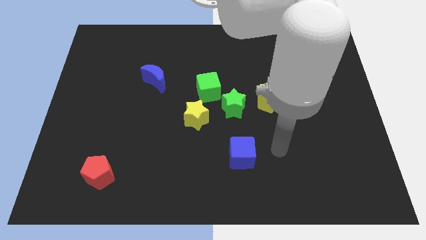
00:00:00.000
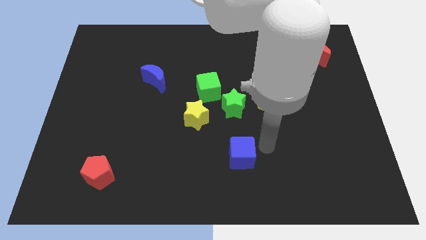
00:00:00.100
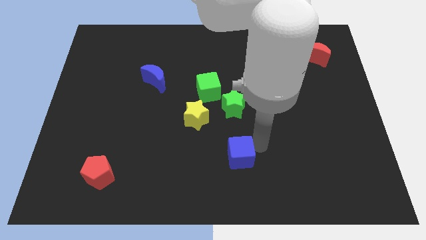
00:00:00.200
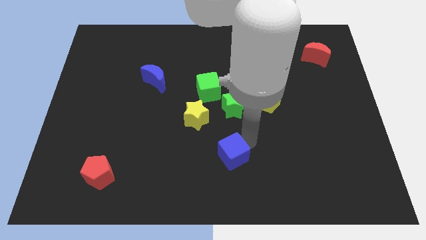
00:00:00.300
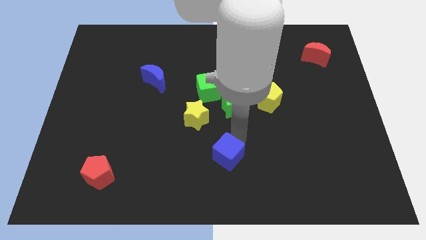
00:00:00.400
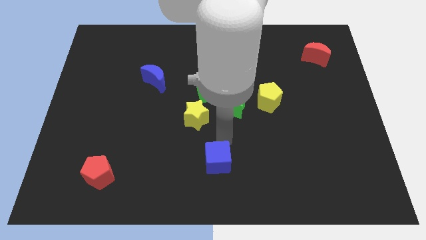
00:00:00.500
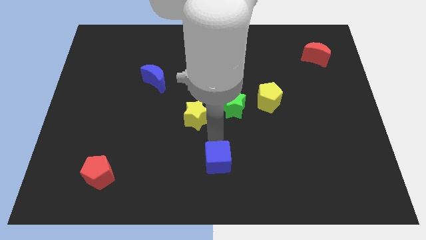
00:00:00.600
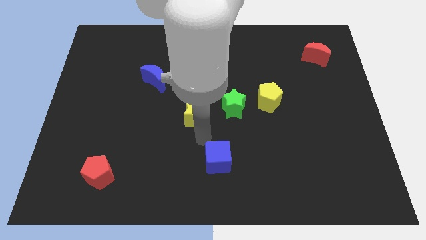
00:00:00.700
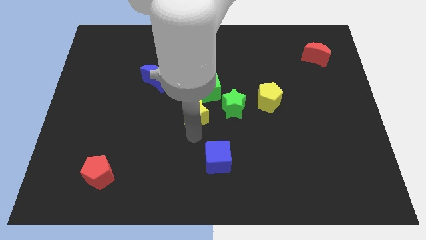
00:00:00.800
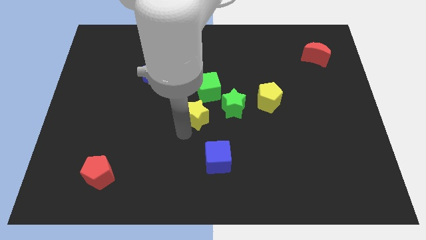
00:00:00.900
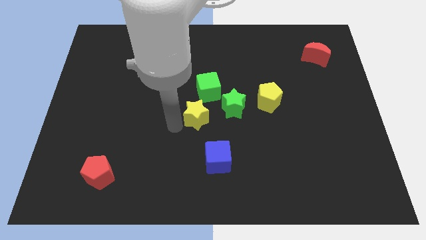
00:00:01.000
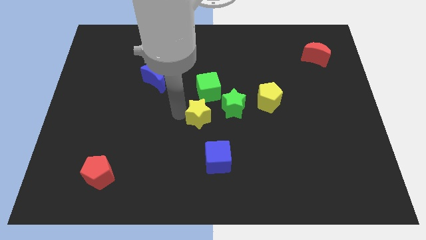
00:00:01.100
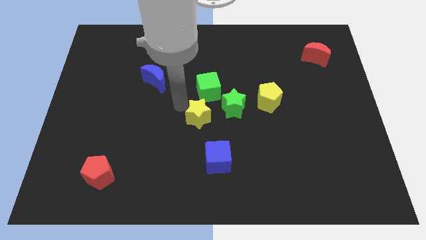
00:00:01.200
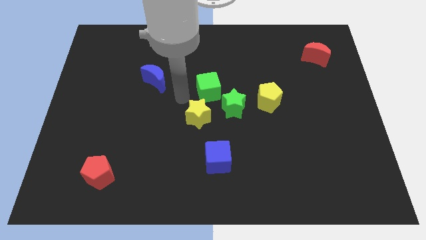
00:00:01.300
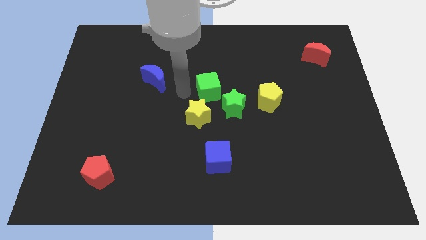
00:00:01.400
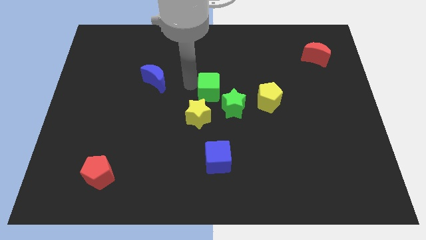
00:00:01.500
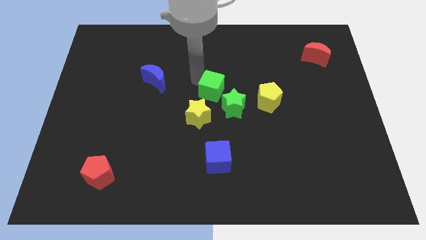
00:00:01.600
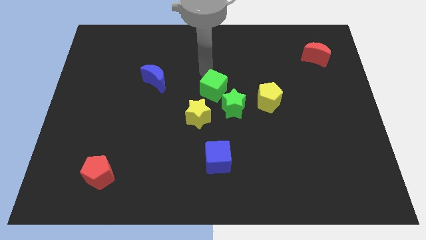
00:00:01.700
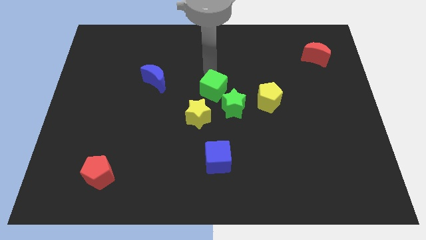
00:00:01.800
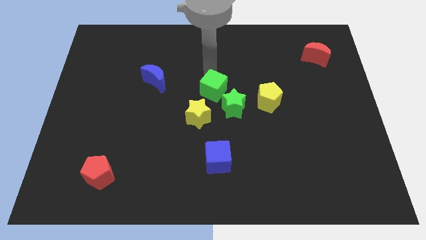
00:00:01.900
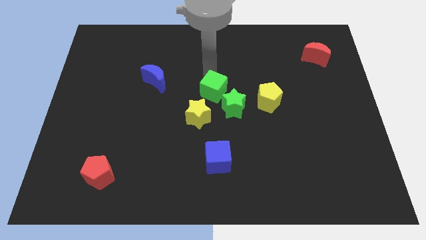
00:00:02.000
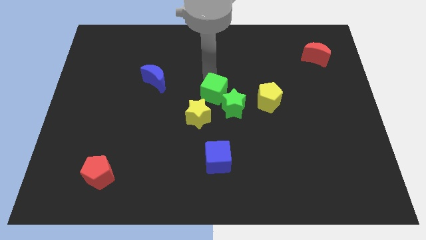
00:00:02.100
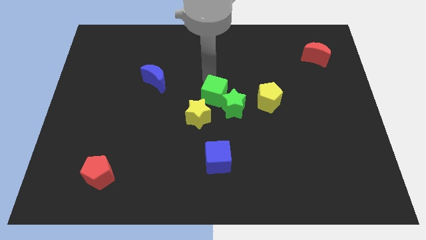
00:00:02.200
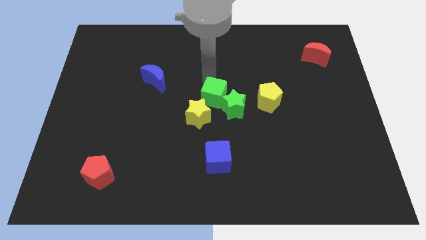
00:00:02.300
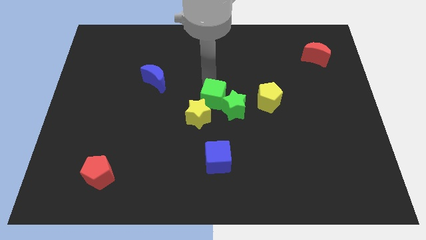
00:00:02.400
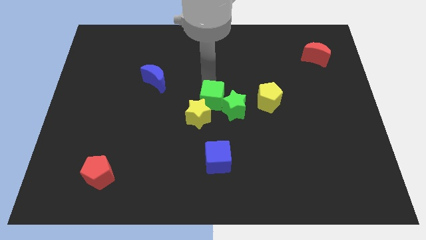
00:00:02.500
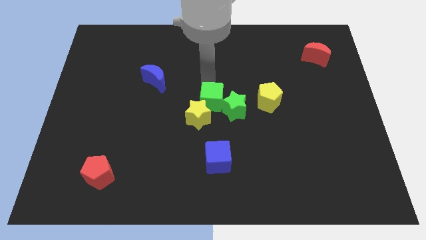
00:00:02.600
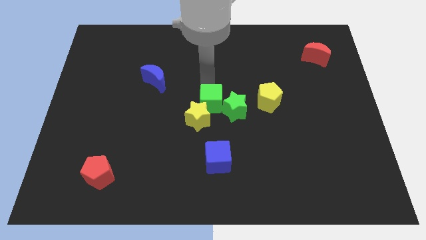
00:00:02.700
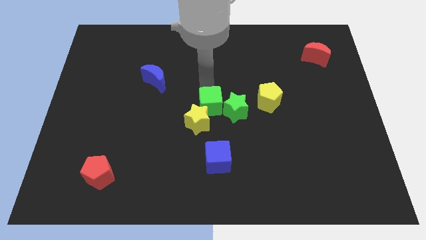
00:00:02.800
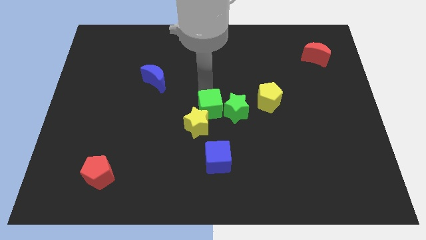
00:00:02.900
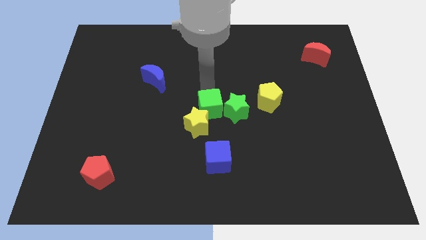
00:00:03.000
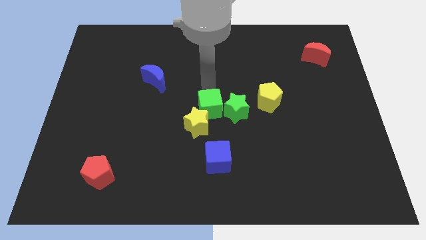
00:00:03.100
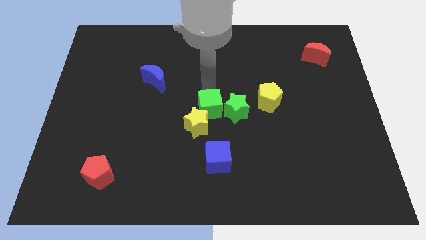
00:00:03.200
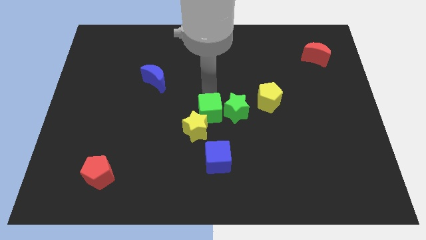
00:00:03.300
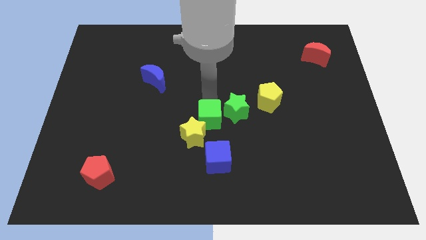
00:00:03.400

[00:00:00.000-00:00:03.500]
move the green cube slightly down

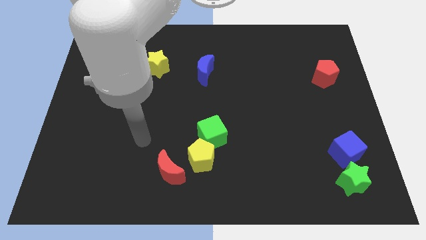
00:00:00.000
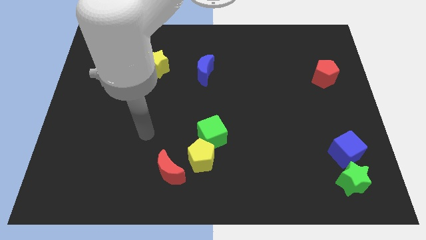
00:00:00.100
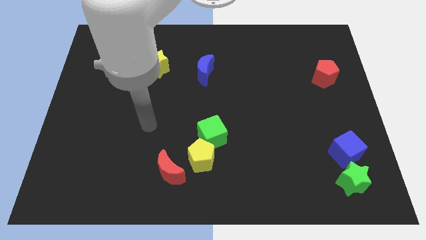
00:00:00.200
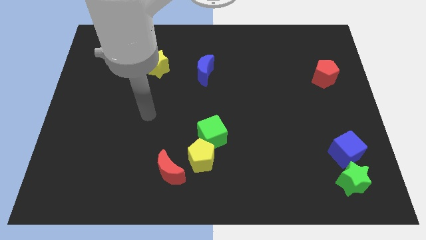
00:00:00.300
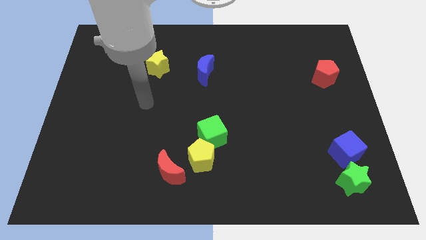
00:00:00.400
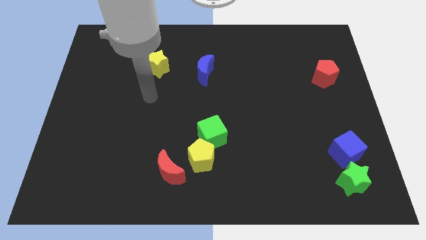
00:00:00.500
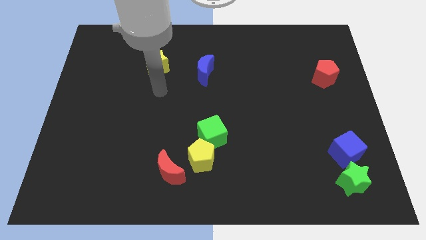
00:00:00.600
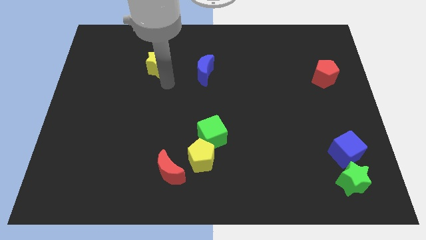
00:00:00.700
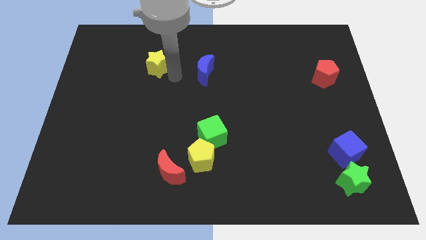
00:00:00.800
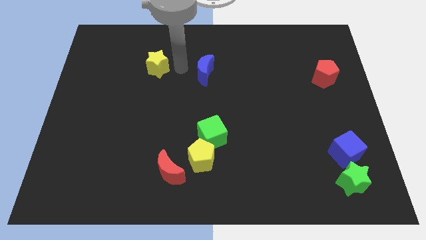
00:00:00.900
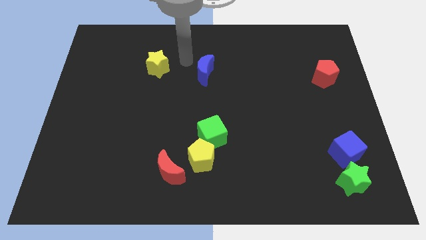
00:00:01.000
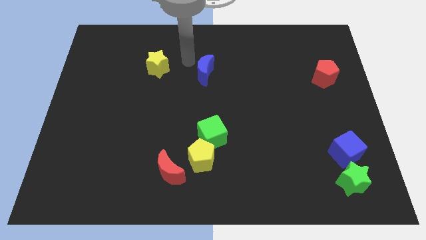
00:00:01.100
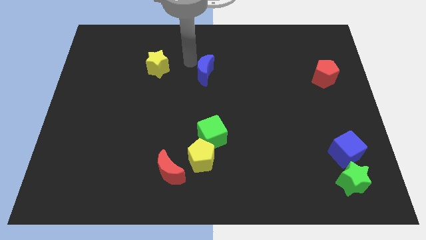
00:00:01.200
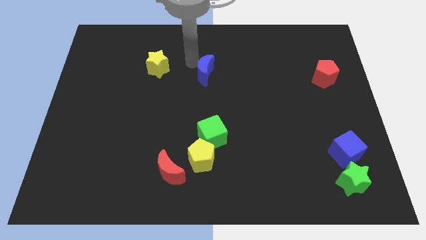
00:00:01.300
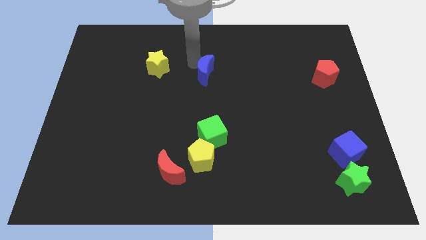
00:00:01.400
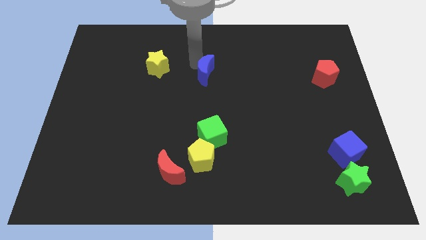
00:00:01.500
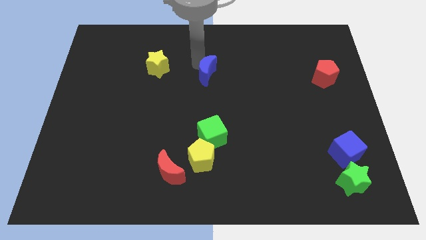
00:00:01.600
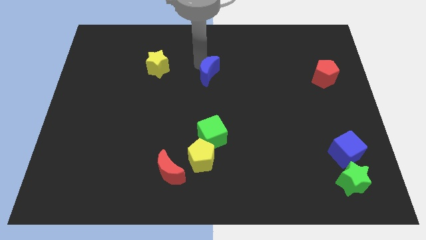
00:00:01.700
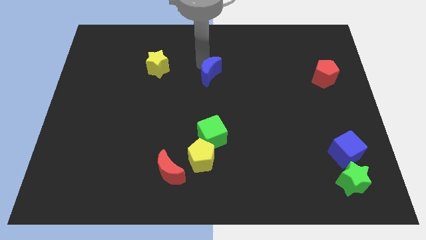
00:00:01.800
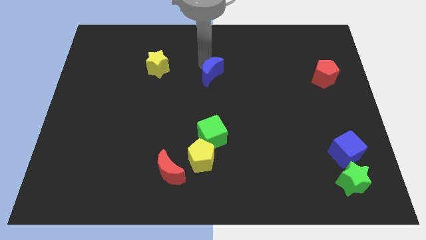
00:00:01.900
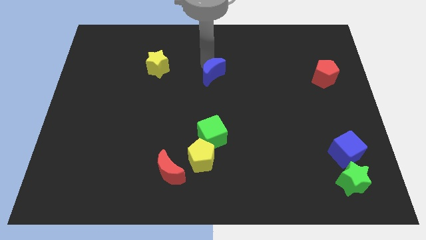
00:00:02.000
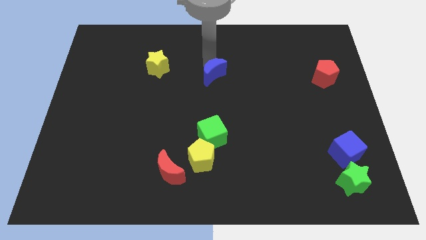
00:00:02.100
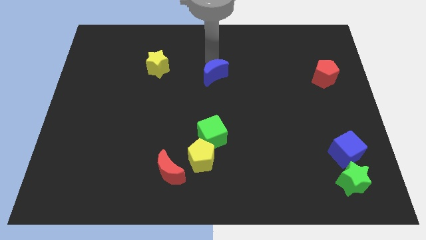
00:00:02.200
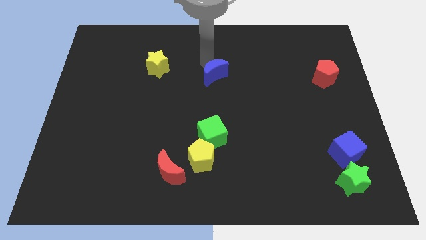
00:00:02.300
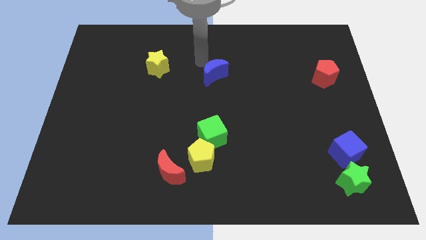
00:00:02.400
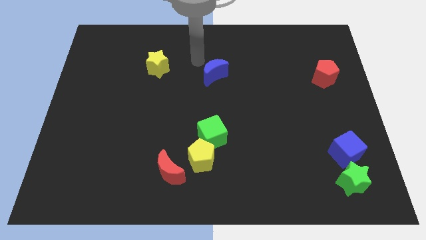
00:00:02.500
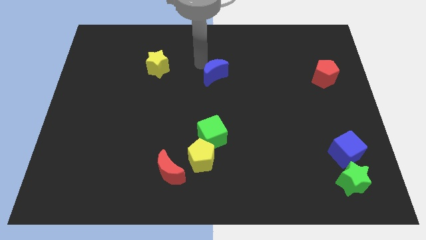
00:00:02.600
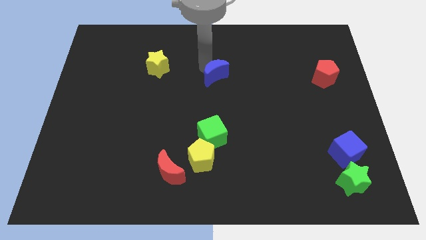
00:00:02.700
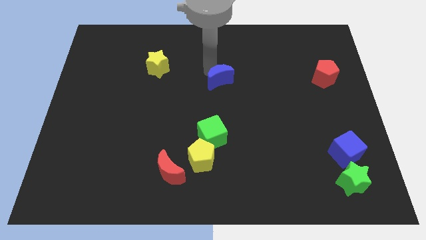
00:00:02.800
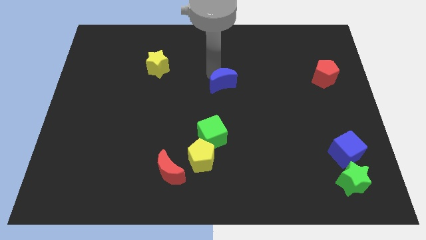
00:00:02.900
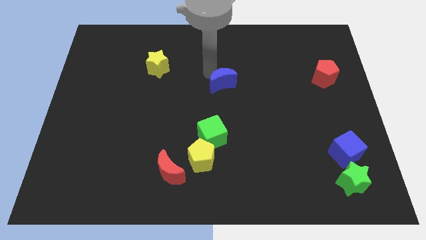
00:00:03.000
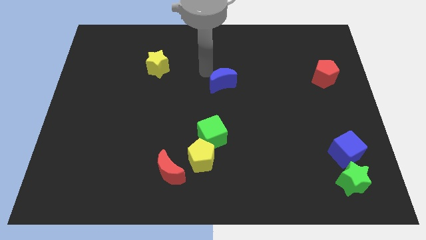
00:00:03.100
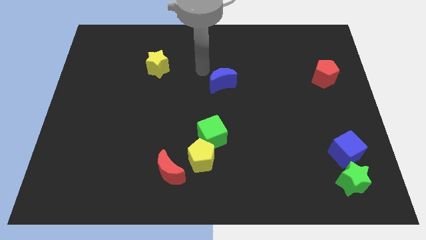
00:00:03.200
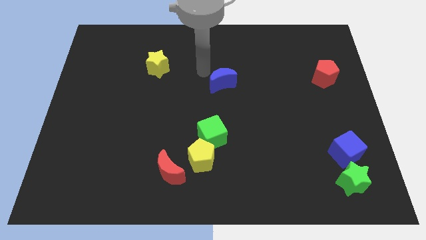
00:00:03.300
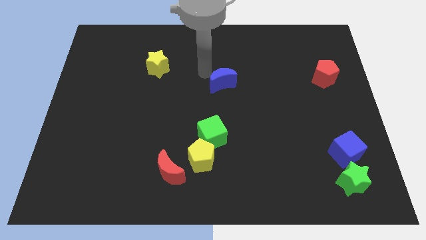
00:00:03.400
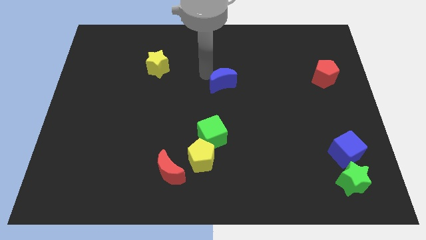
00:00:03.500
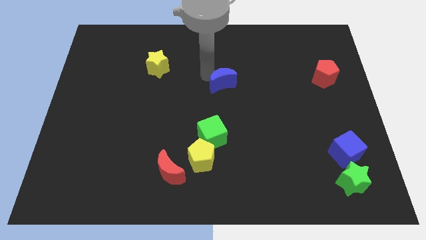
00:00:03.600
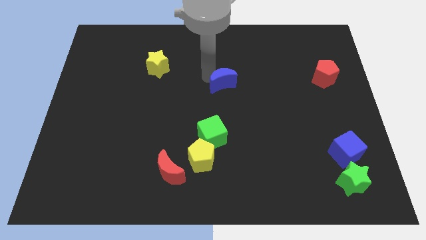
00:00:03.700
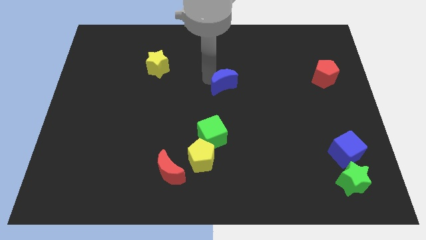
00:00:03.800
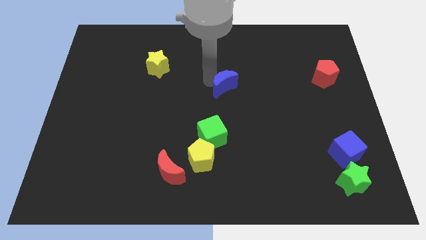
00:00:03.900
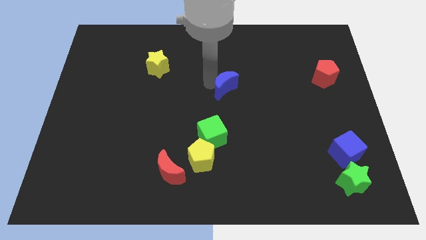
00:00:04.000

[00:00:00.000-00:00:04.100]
slightly move the blue moon down and right

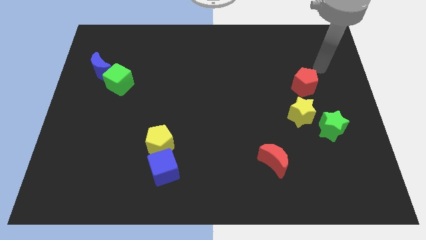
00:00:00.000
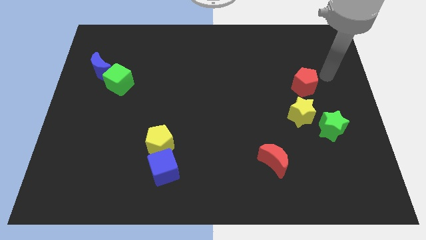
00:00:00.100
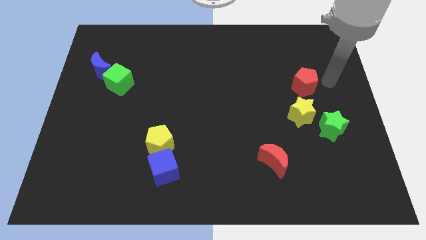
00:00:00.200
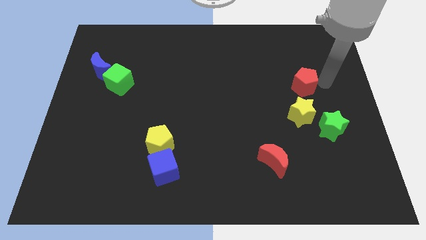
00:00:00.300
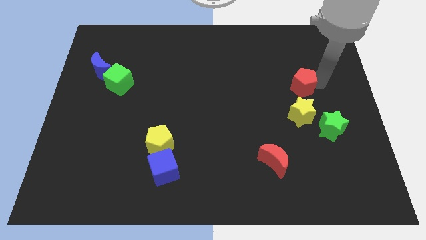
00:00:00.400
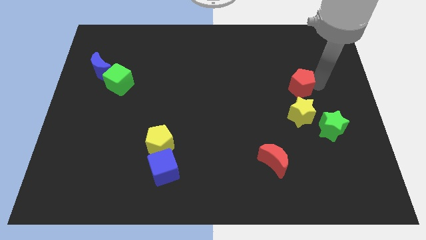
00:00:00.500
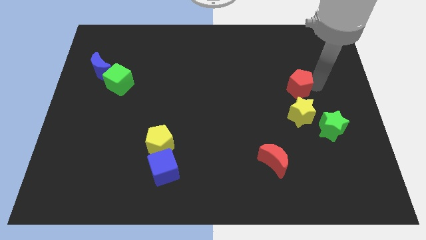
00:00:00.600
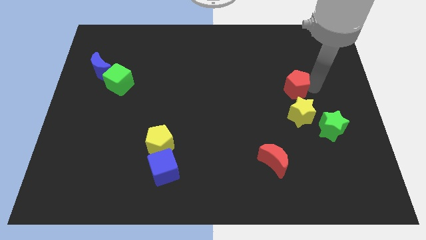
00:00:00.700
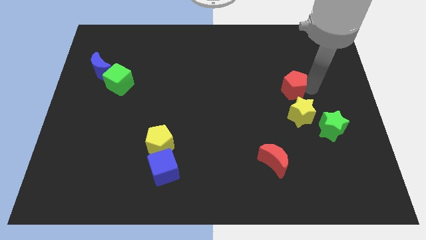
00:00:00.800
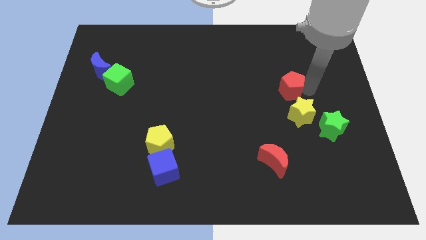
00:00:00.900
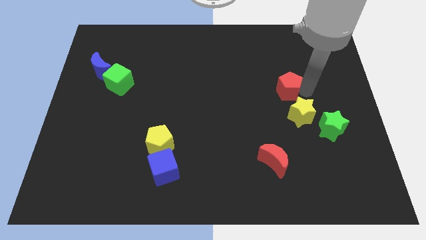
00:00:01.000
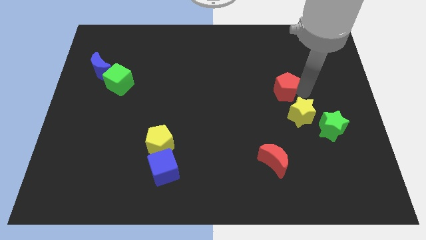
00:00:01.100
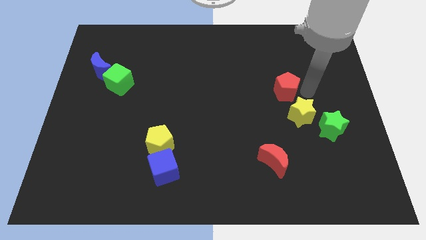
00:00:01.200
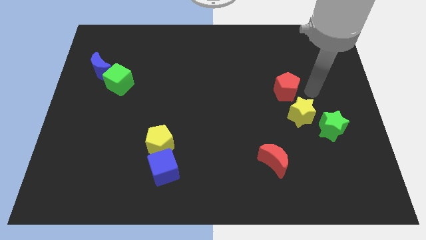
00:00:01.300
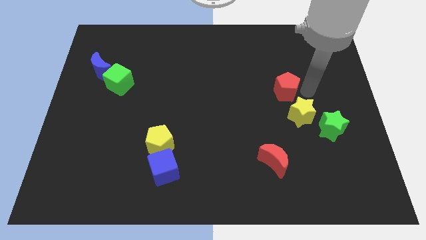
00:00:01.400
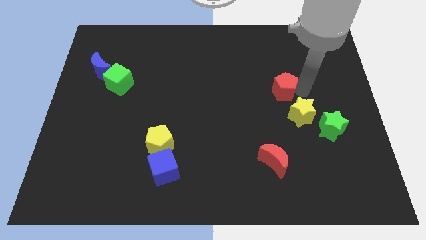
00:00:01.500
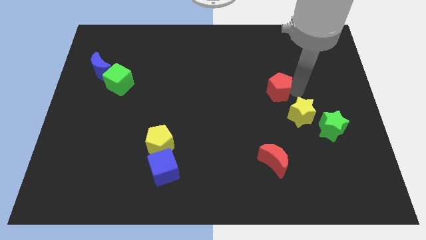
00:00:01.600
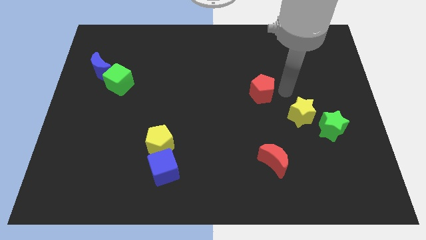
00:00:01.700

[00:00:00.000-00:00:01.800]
slightly push the red pentagon left
